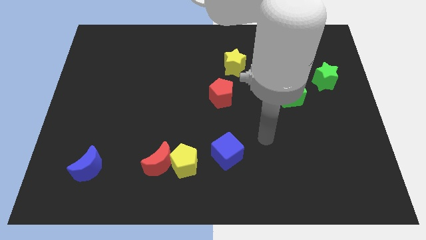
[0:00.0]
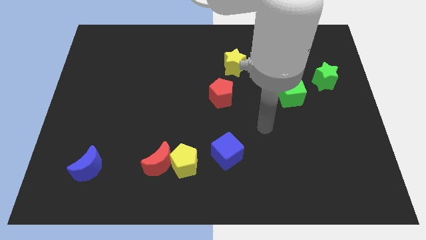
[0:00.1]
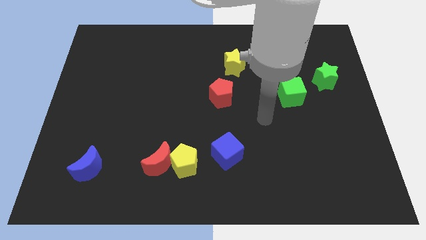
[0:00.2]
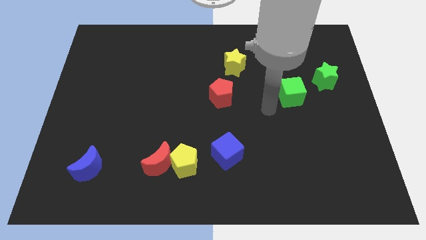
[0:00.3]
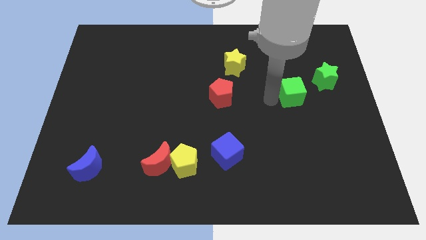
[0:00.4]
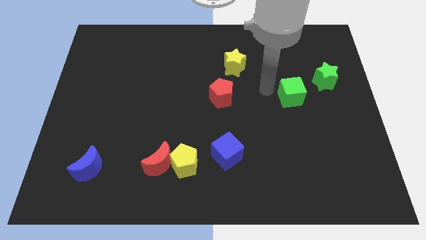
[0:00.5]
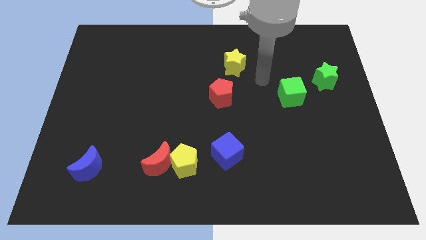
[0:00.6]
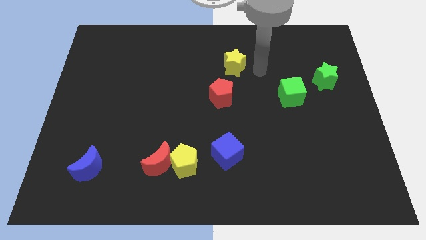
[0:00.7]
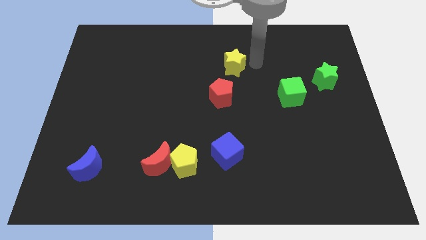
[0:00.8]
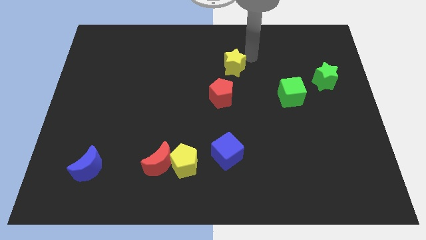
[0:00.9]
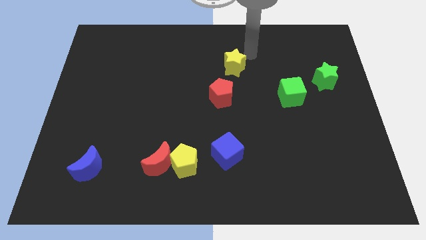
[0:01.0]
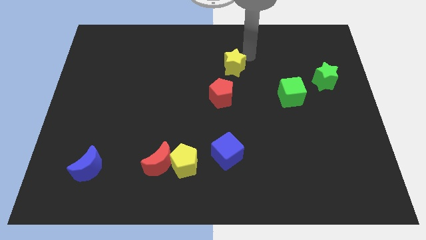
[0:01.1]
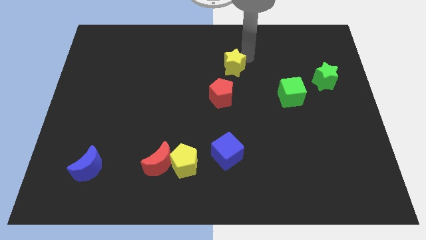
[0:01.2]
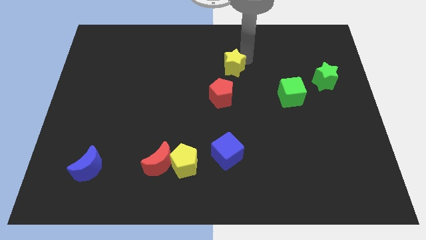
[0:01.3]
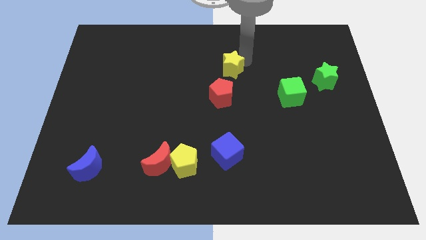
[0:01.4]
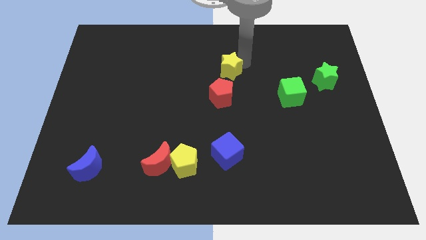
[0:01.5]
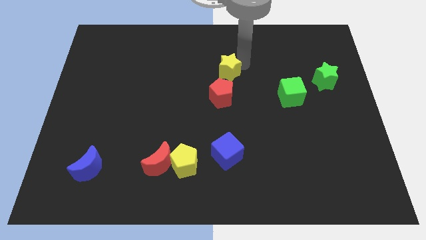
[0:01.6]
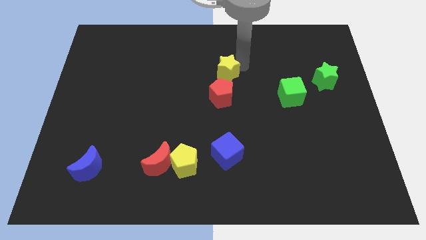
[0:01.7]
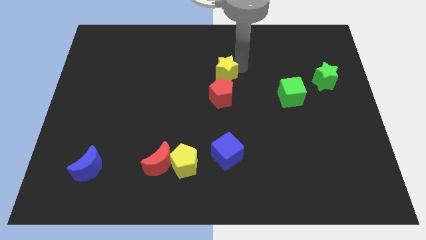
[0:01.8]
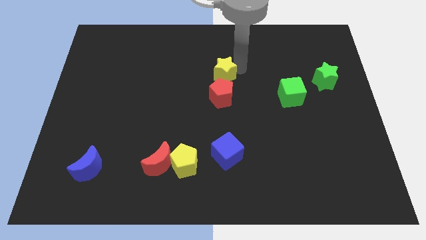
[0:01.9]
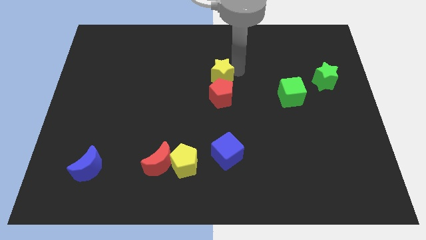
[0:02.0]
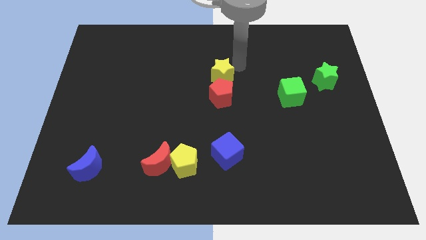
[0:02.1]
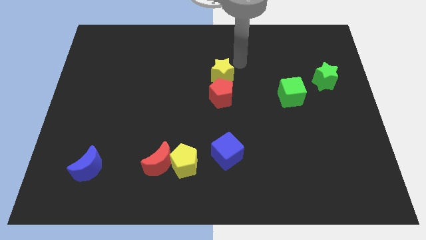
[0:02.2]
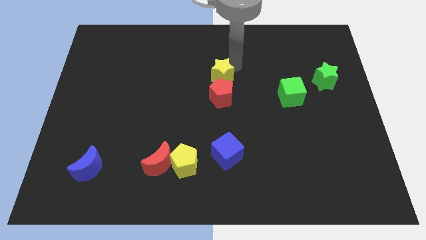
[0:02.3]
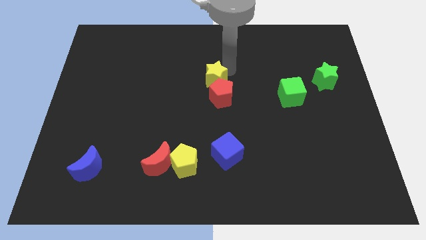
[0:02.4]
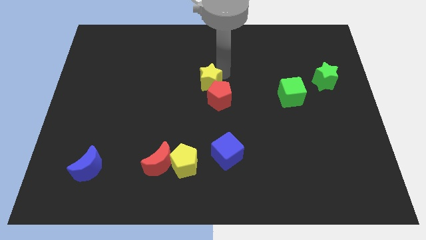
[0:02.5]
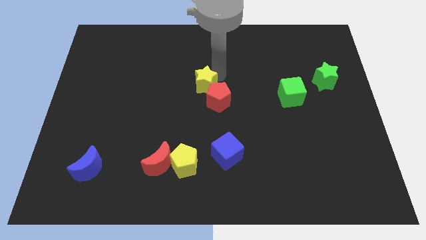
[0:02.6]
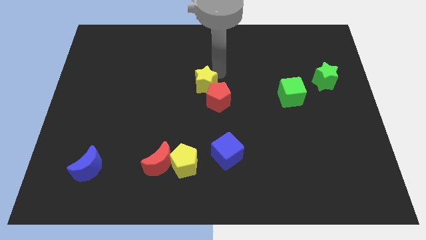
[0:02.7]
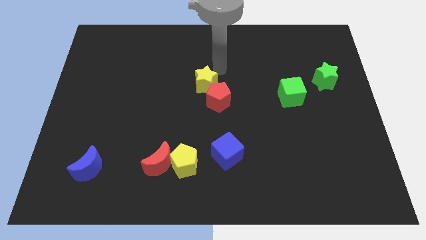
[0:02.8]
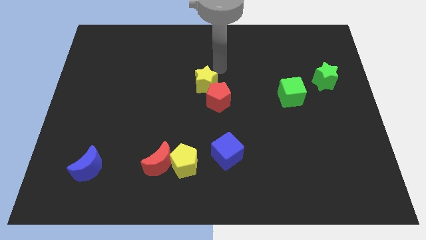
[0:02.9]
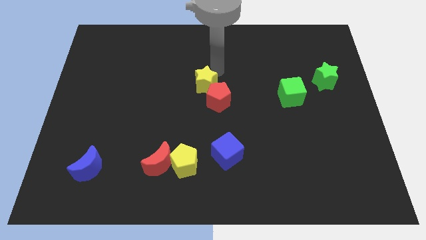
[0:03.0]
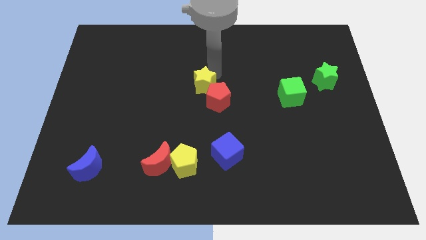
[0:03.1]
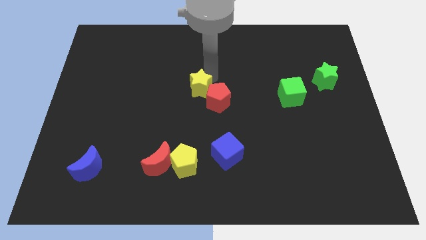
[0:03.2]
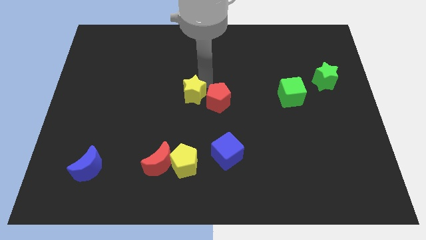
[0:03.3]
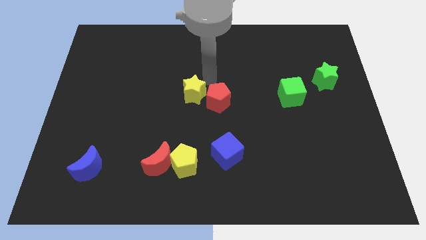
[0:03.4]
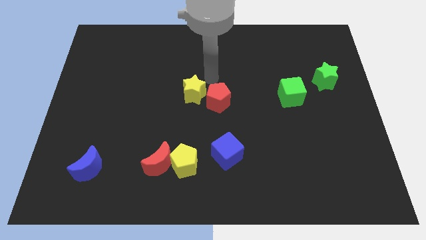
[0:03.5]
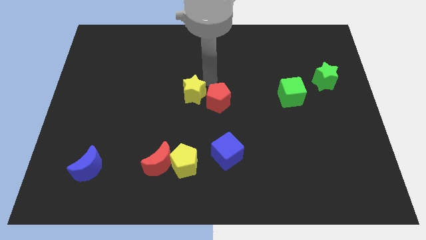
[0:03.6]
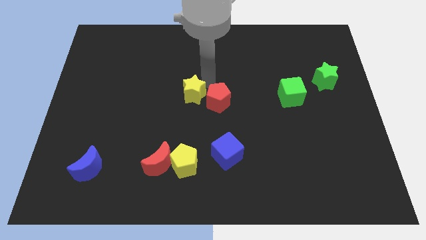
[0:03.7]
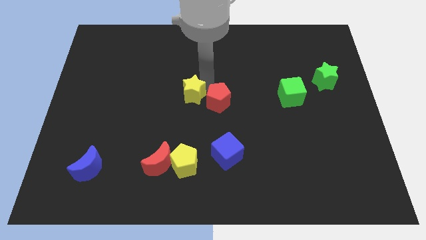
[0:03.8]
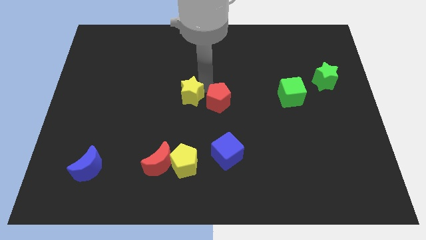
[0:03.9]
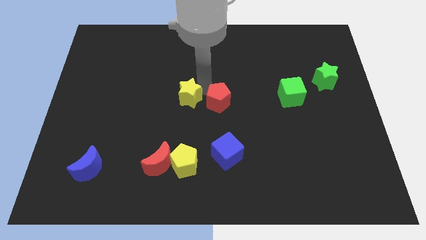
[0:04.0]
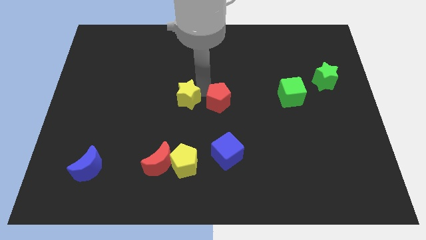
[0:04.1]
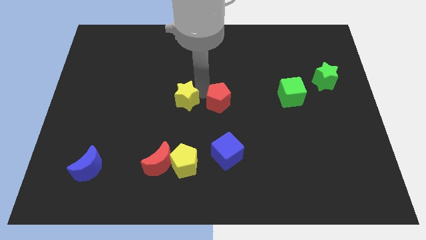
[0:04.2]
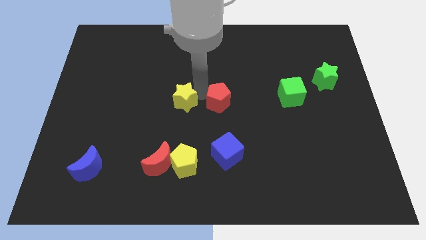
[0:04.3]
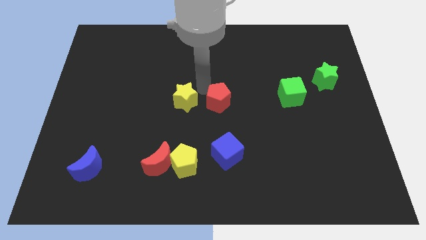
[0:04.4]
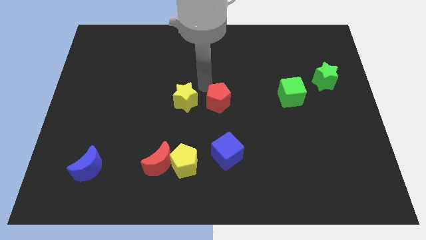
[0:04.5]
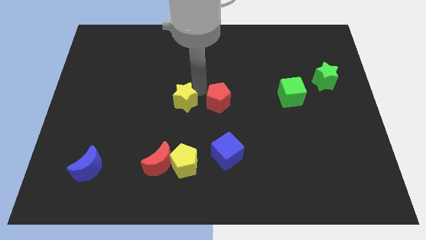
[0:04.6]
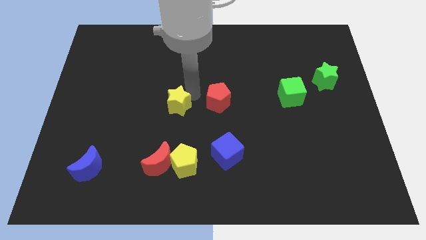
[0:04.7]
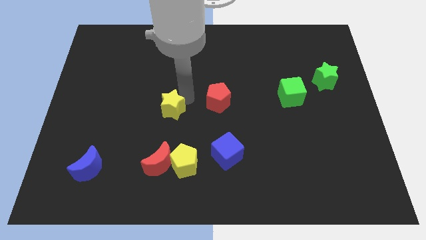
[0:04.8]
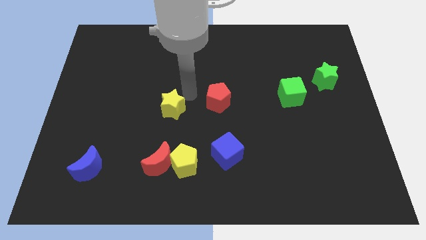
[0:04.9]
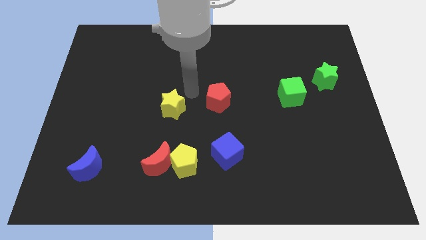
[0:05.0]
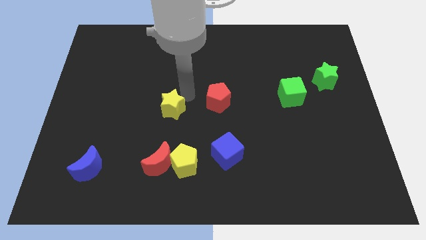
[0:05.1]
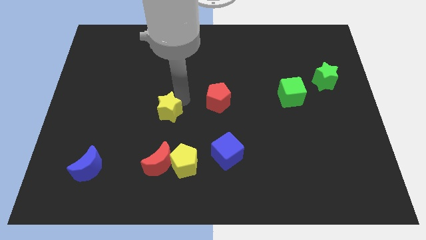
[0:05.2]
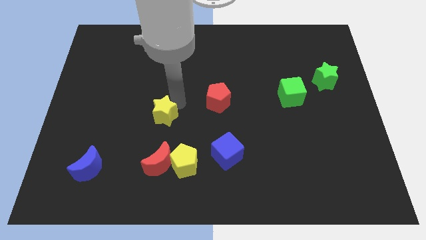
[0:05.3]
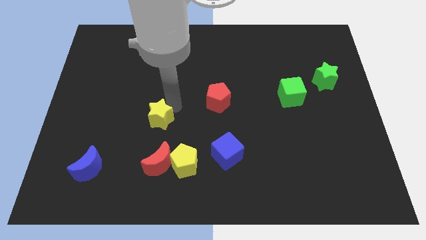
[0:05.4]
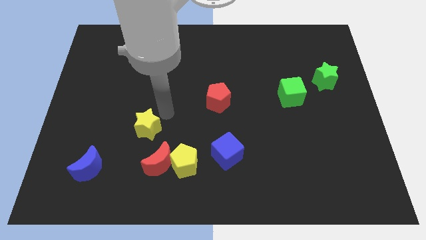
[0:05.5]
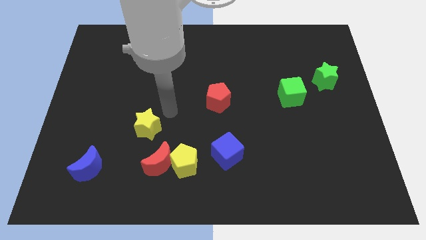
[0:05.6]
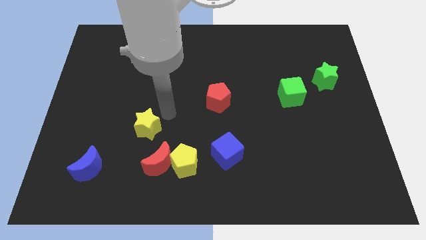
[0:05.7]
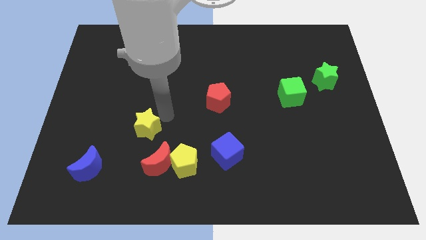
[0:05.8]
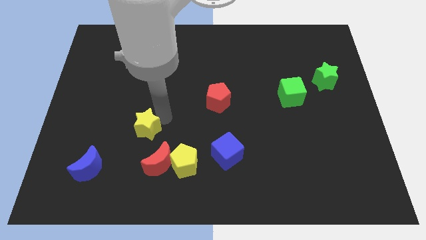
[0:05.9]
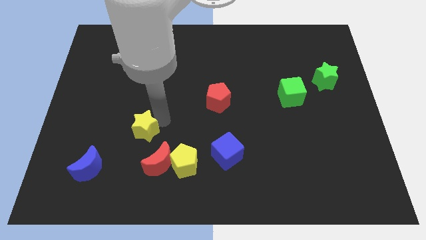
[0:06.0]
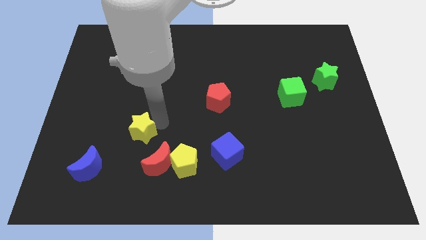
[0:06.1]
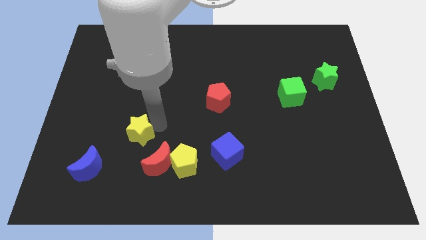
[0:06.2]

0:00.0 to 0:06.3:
put the yellow star diagonally up and to the right of the blue moon
